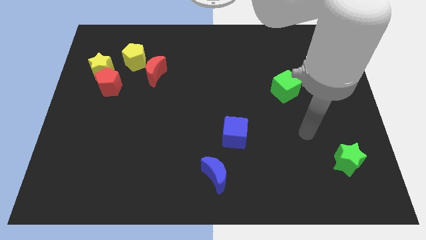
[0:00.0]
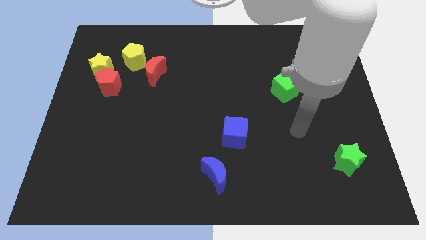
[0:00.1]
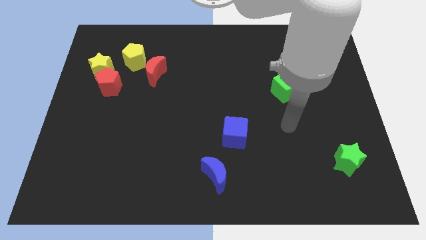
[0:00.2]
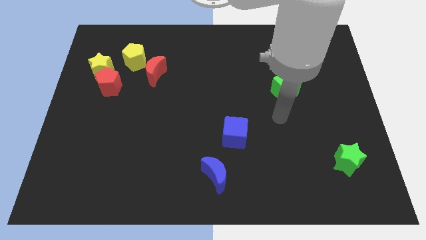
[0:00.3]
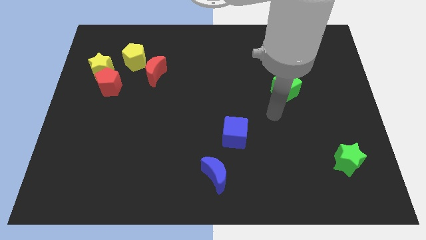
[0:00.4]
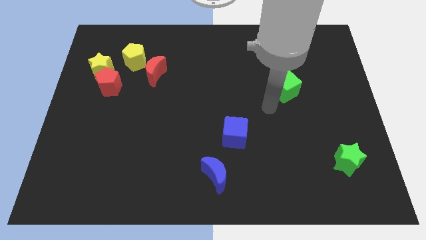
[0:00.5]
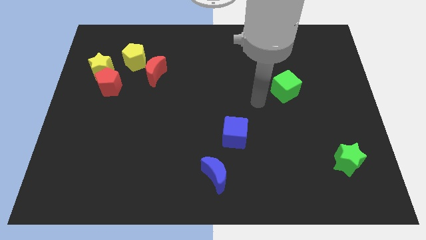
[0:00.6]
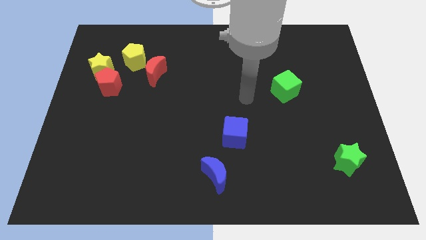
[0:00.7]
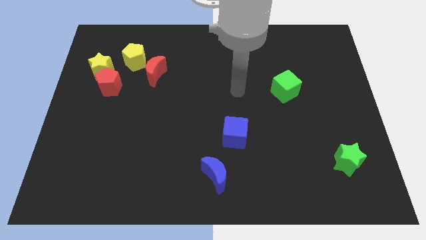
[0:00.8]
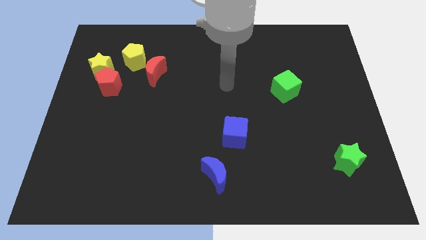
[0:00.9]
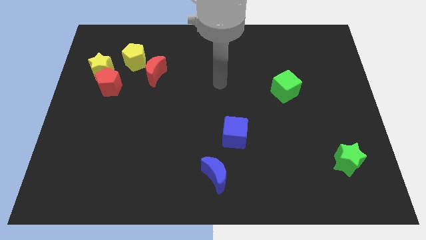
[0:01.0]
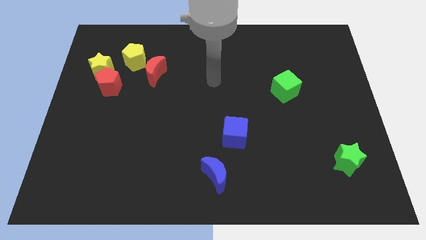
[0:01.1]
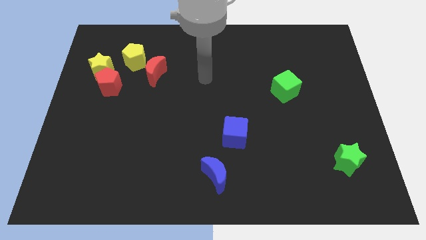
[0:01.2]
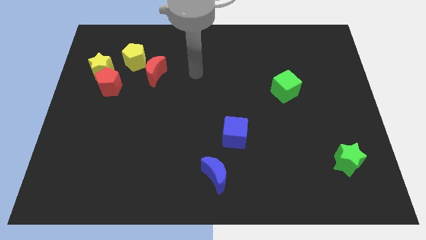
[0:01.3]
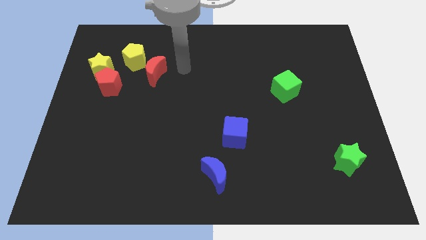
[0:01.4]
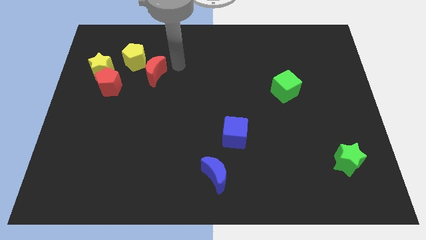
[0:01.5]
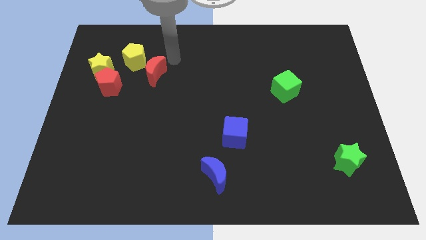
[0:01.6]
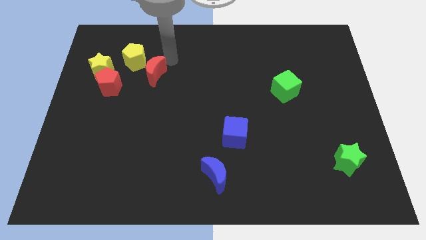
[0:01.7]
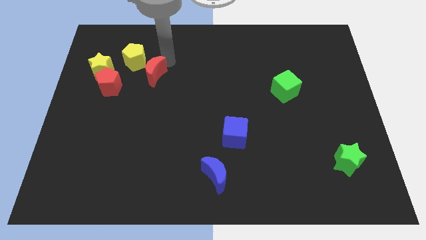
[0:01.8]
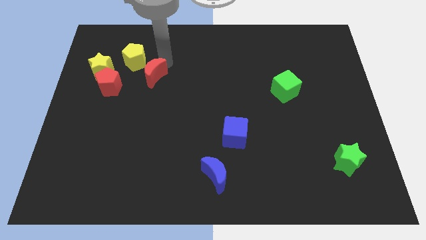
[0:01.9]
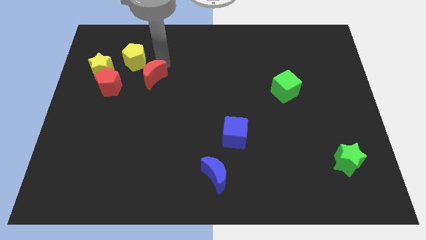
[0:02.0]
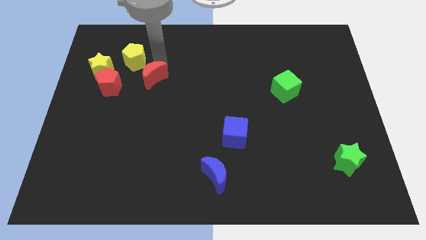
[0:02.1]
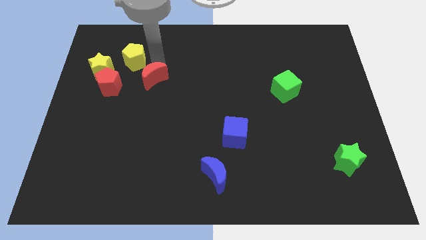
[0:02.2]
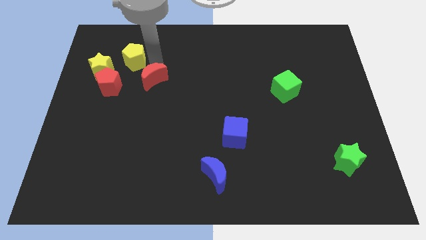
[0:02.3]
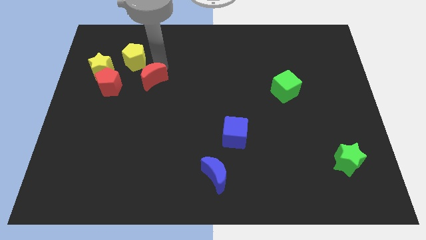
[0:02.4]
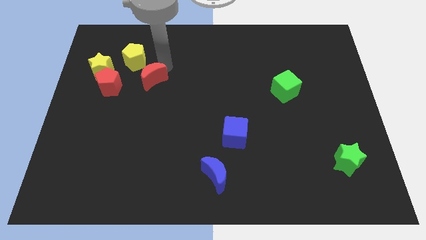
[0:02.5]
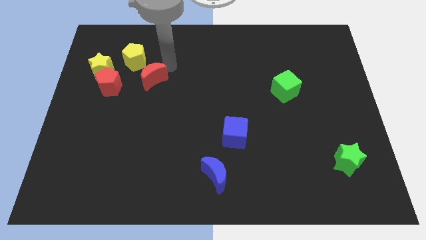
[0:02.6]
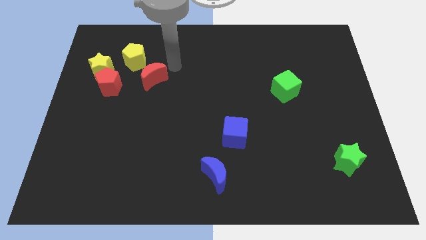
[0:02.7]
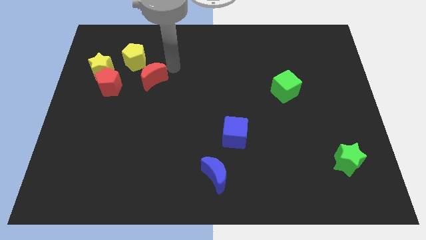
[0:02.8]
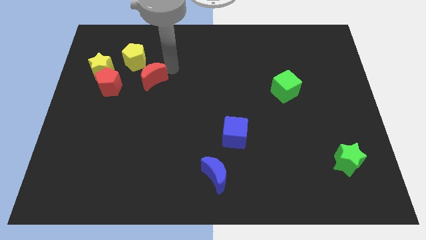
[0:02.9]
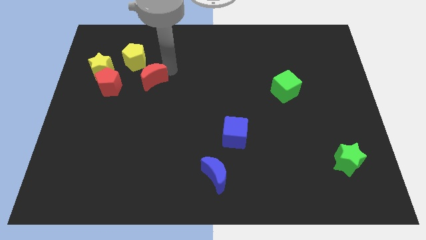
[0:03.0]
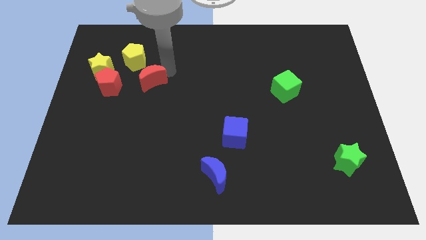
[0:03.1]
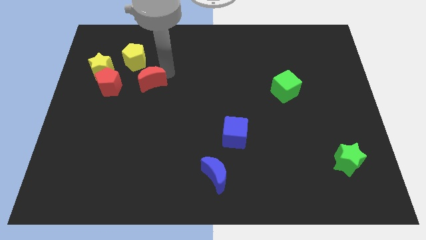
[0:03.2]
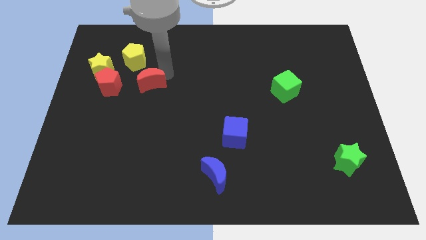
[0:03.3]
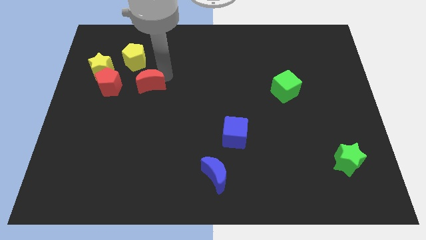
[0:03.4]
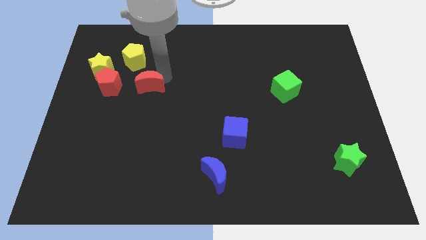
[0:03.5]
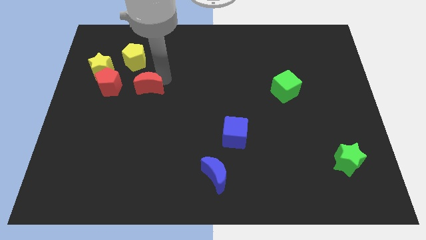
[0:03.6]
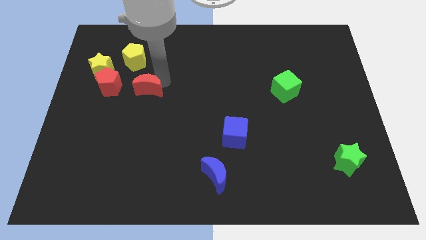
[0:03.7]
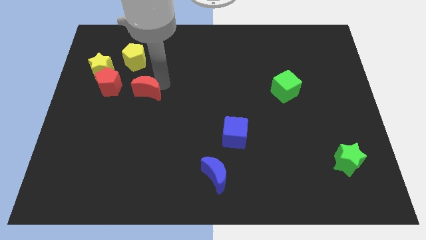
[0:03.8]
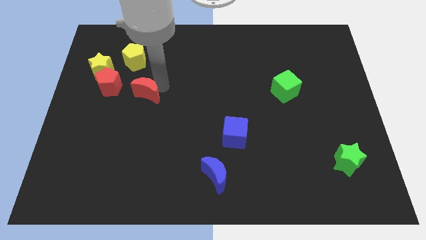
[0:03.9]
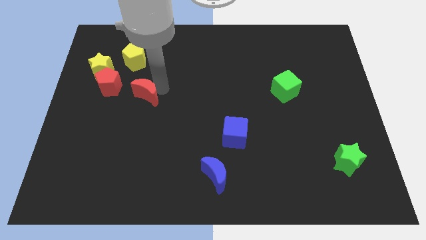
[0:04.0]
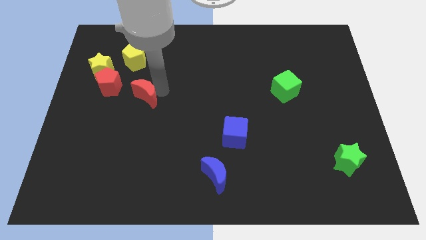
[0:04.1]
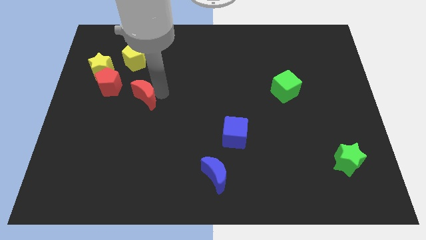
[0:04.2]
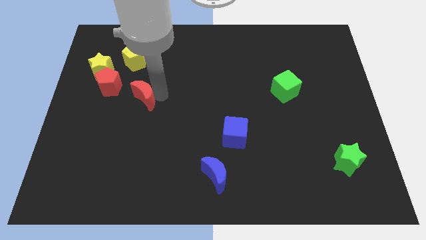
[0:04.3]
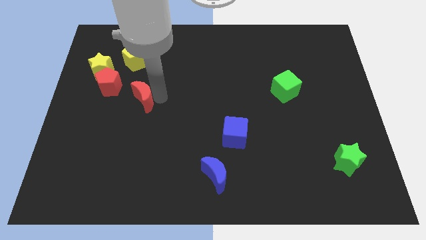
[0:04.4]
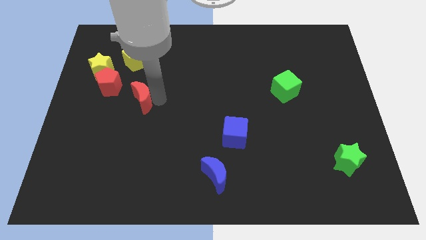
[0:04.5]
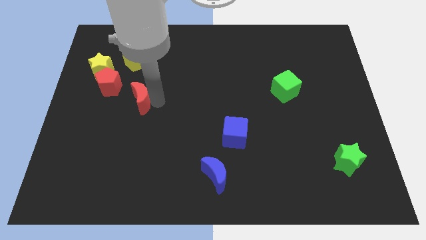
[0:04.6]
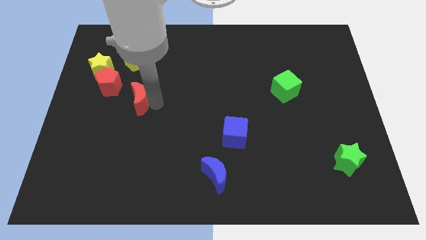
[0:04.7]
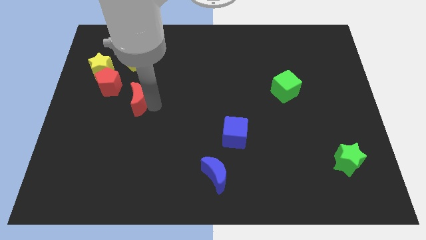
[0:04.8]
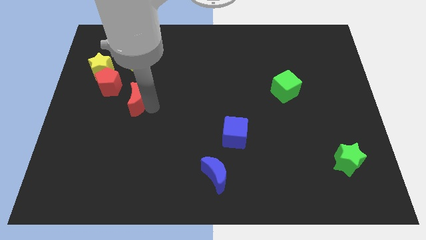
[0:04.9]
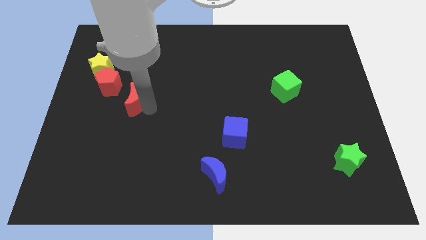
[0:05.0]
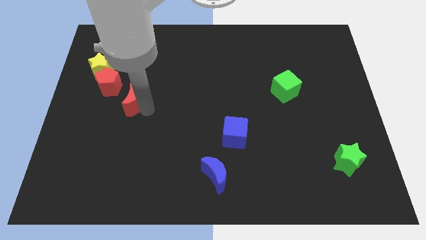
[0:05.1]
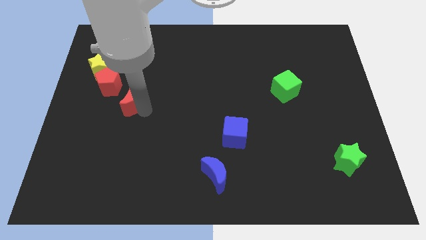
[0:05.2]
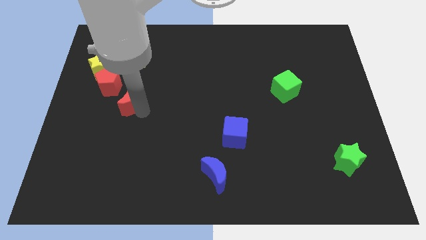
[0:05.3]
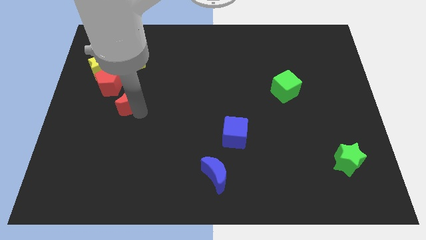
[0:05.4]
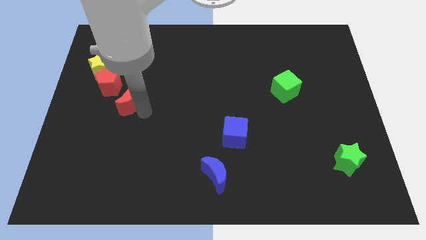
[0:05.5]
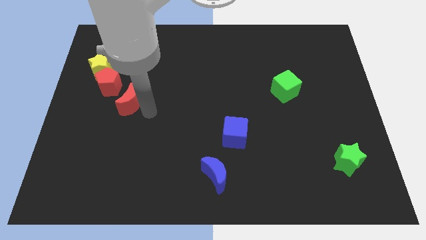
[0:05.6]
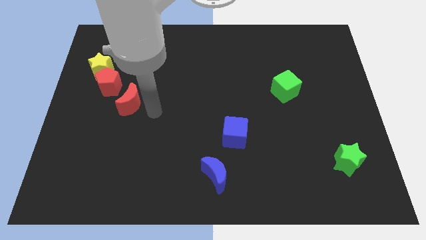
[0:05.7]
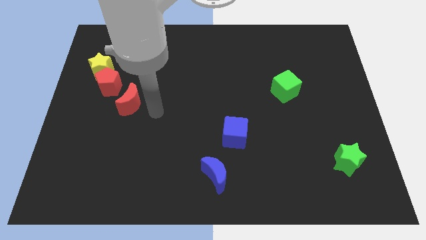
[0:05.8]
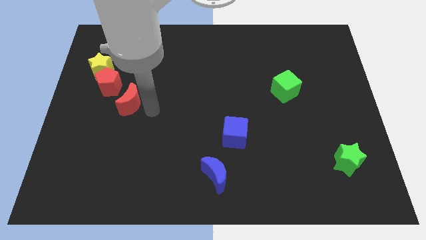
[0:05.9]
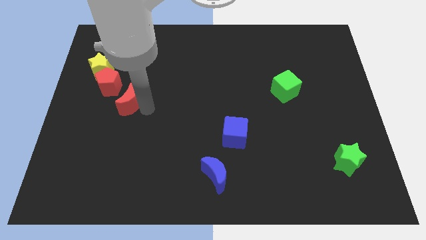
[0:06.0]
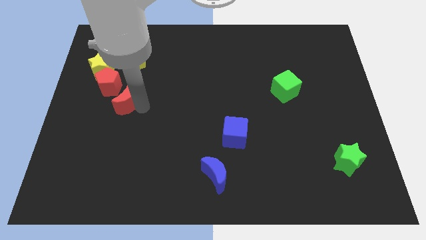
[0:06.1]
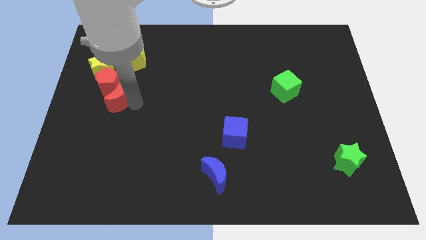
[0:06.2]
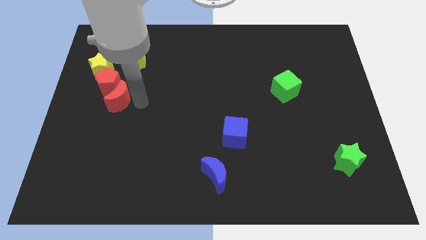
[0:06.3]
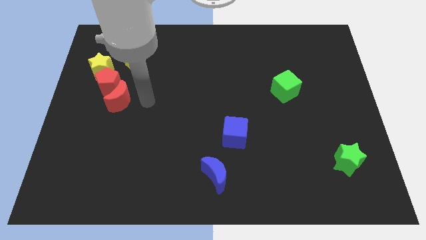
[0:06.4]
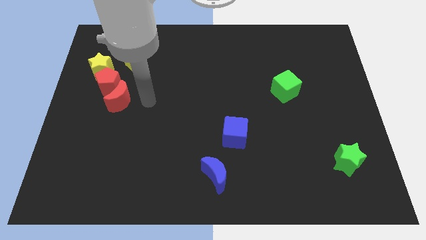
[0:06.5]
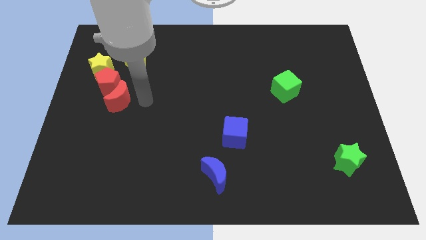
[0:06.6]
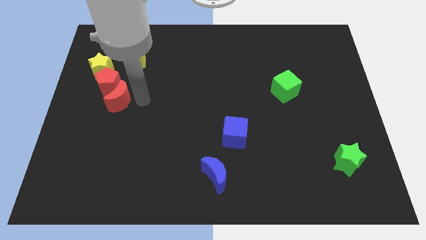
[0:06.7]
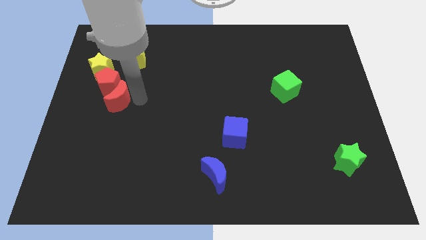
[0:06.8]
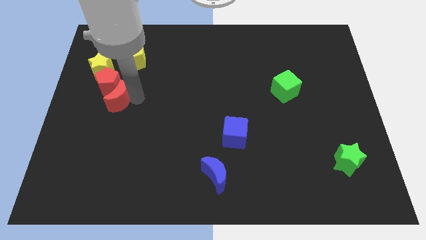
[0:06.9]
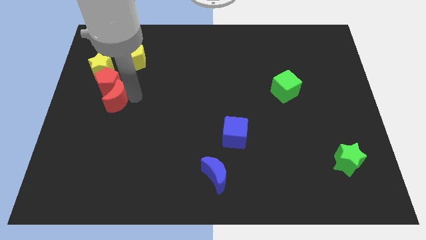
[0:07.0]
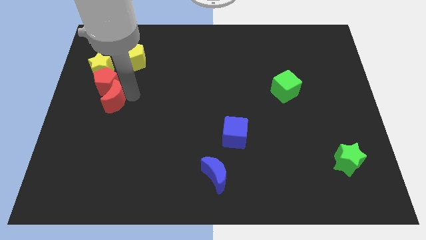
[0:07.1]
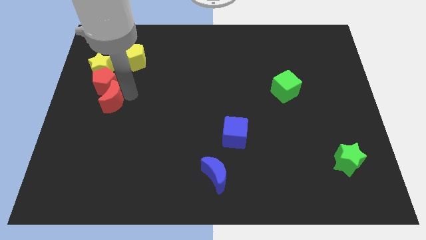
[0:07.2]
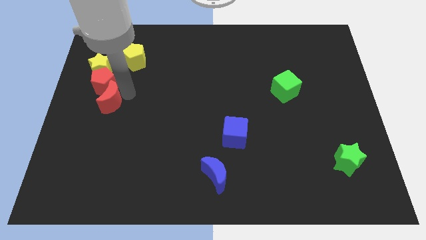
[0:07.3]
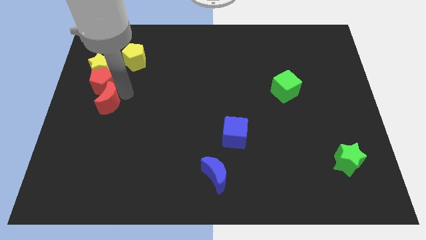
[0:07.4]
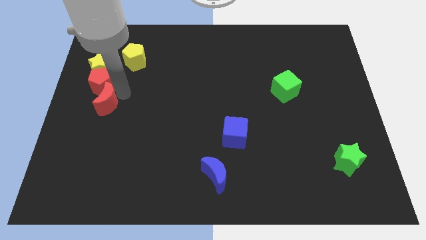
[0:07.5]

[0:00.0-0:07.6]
slide the red moon to the left side

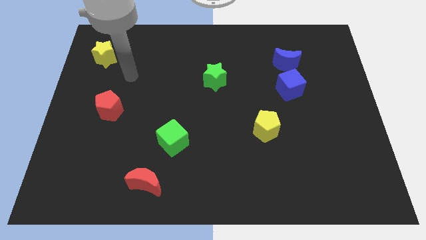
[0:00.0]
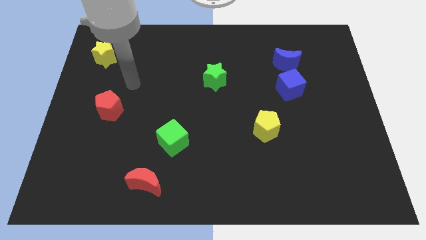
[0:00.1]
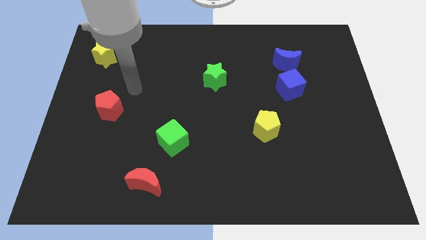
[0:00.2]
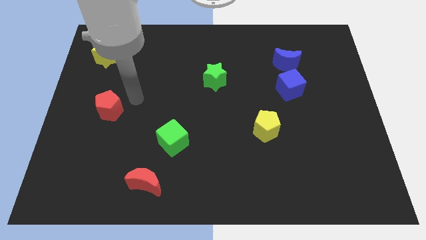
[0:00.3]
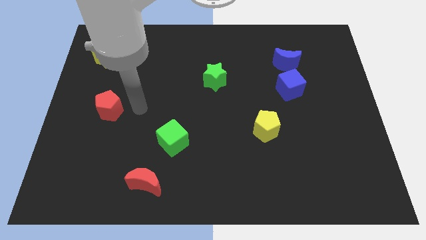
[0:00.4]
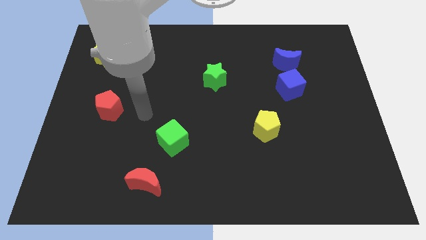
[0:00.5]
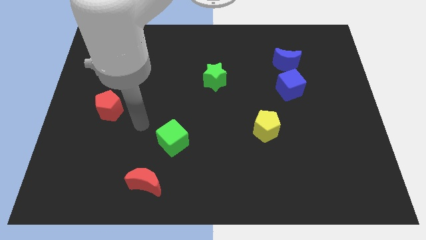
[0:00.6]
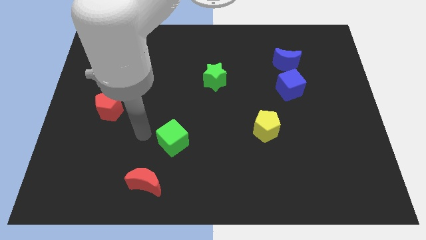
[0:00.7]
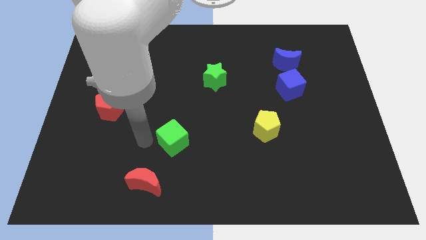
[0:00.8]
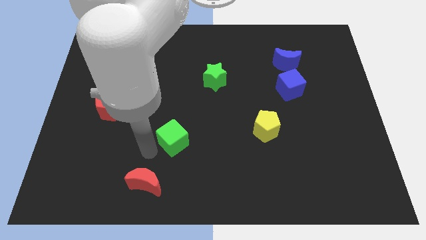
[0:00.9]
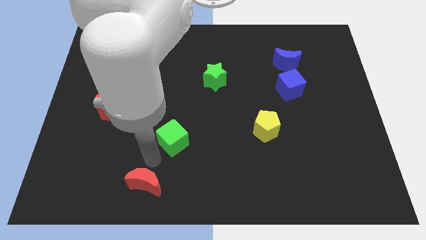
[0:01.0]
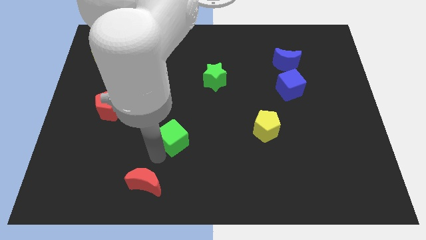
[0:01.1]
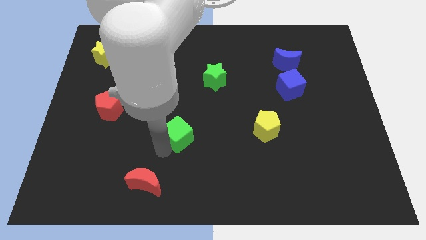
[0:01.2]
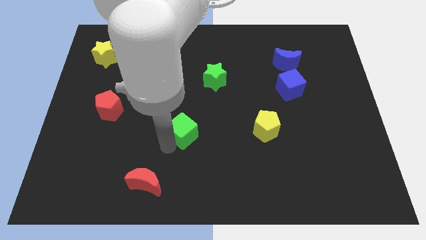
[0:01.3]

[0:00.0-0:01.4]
move the green cube to the middle of the board
